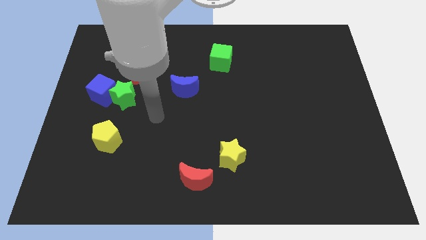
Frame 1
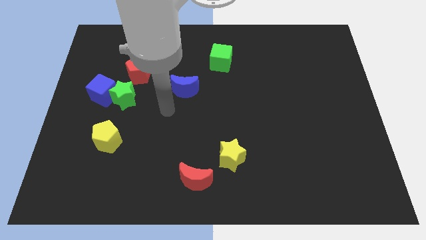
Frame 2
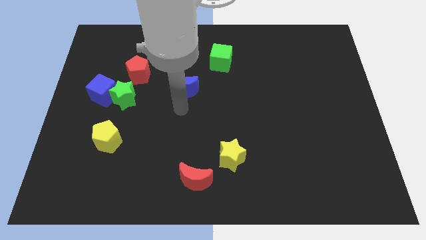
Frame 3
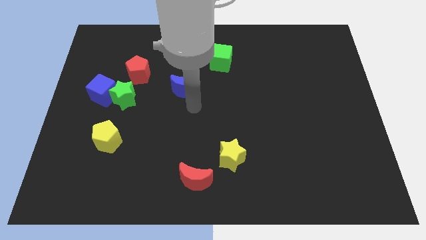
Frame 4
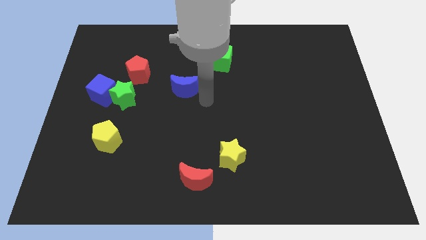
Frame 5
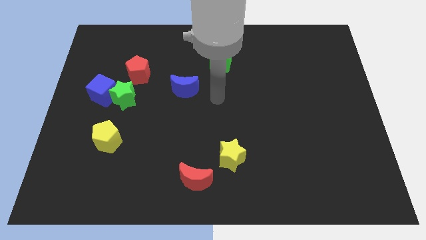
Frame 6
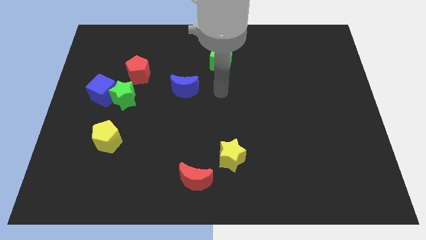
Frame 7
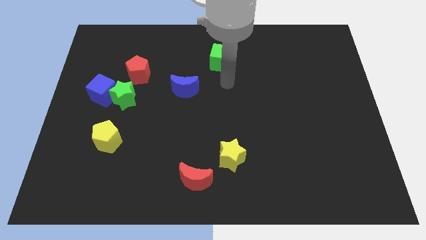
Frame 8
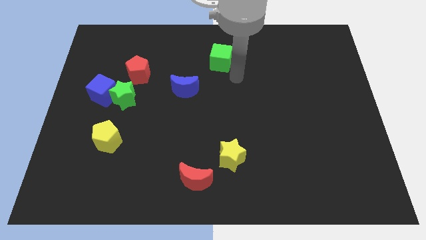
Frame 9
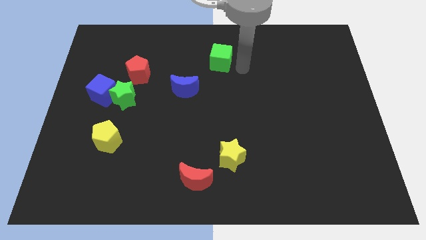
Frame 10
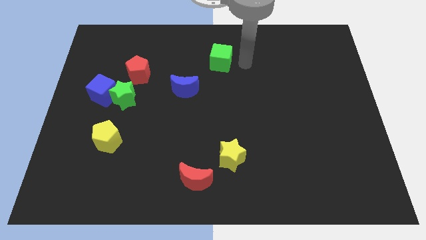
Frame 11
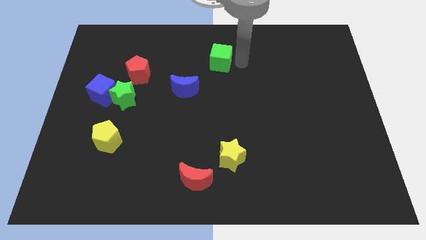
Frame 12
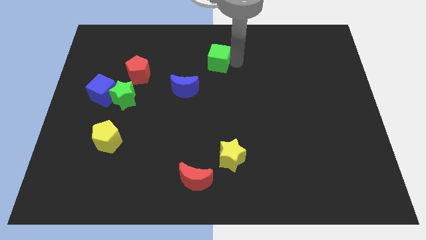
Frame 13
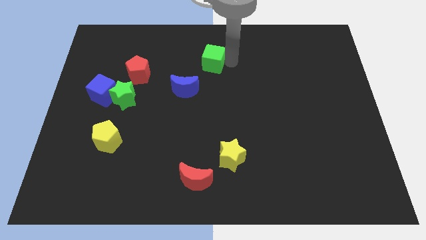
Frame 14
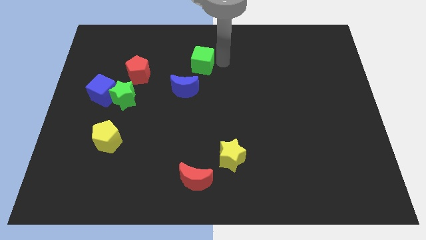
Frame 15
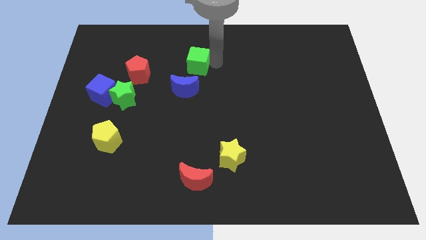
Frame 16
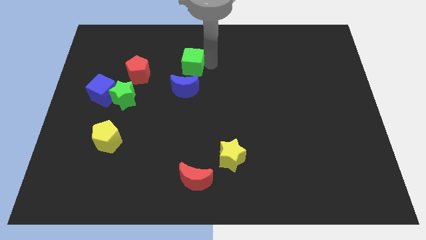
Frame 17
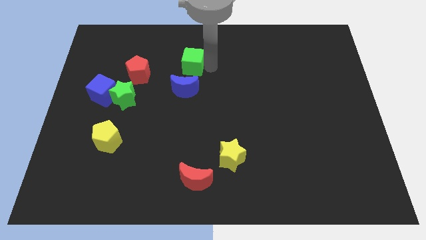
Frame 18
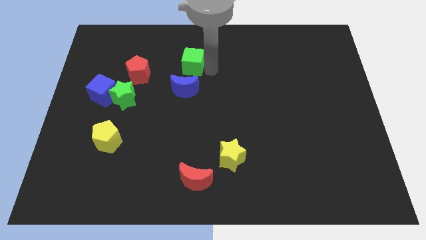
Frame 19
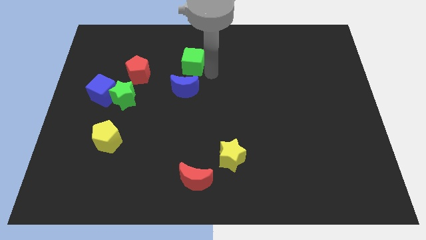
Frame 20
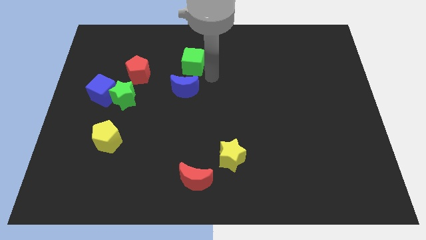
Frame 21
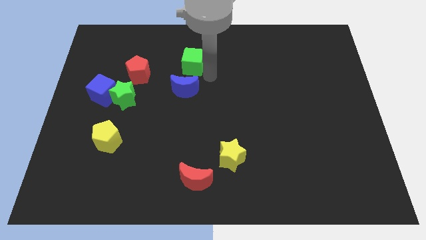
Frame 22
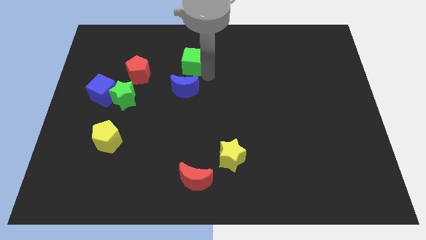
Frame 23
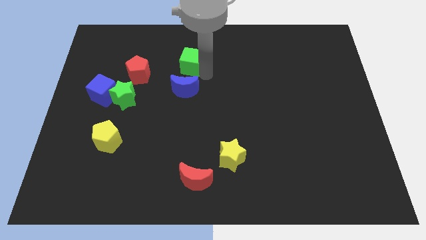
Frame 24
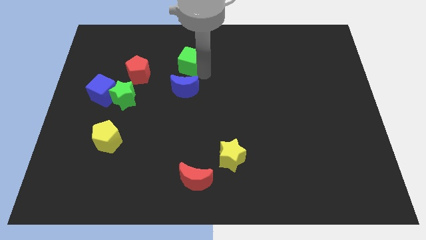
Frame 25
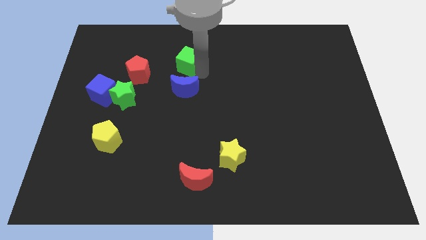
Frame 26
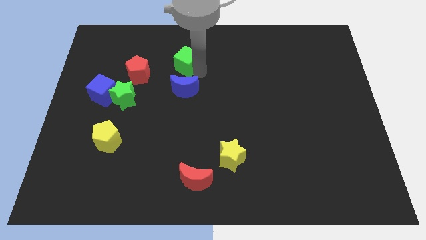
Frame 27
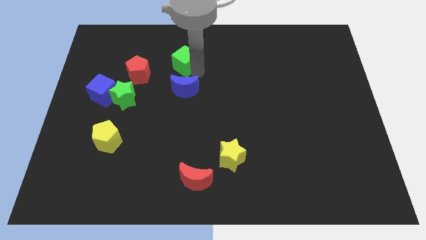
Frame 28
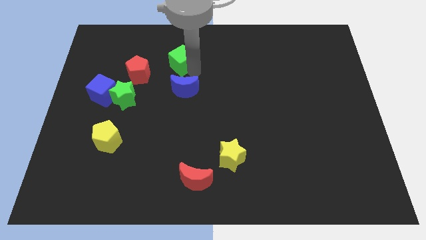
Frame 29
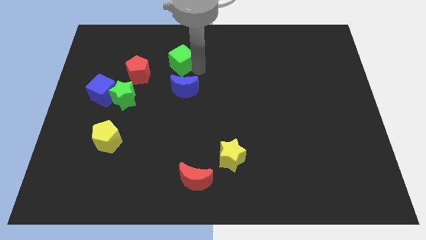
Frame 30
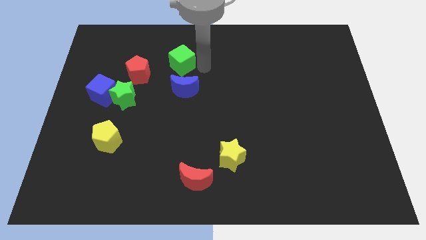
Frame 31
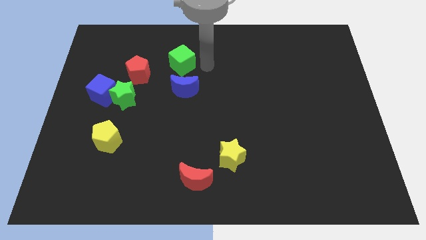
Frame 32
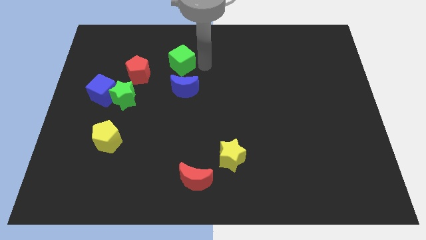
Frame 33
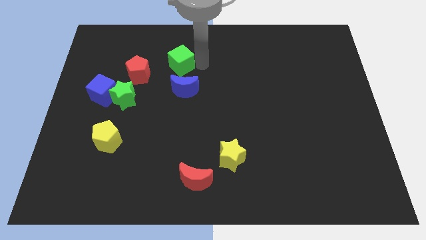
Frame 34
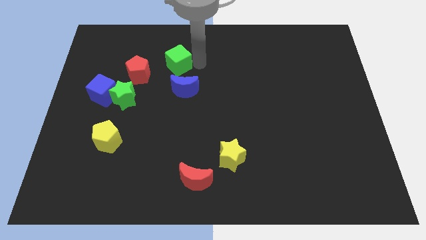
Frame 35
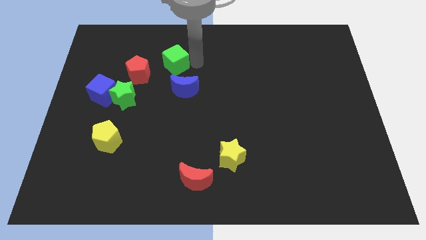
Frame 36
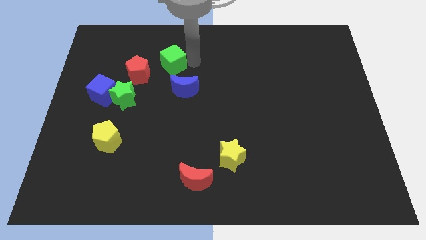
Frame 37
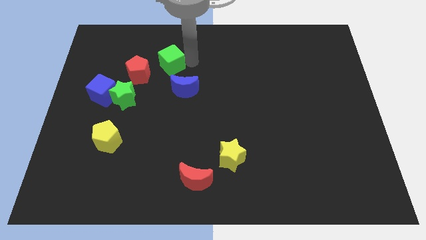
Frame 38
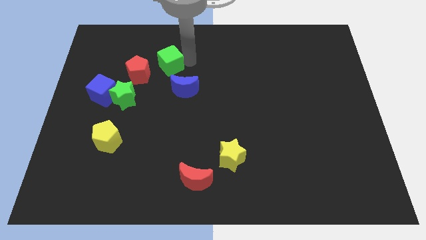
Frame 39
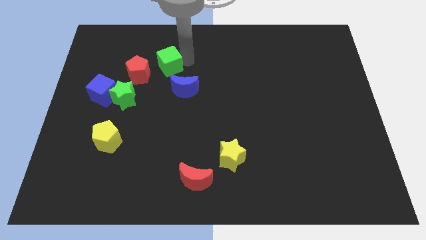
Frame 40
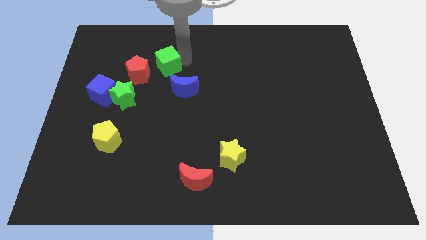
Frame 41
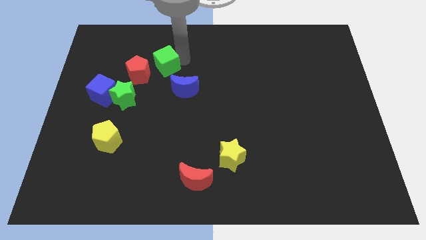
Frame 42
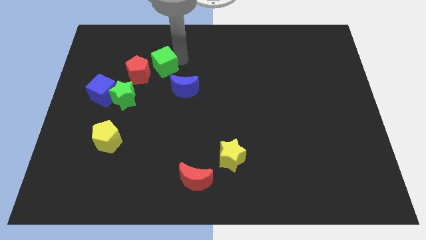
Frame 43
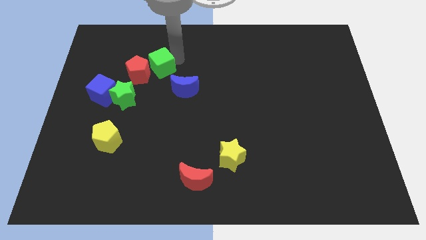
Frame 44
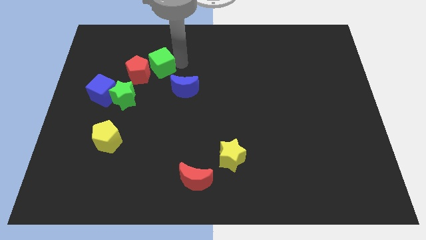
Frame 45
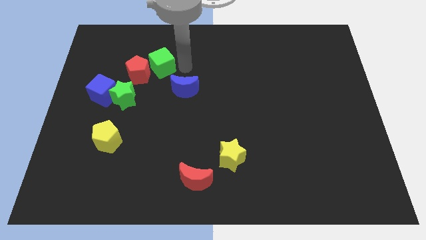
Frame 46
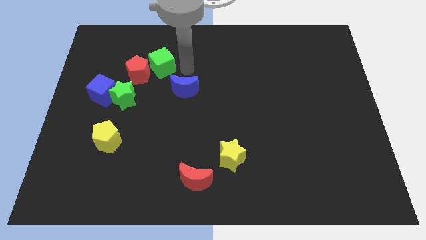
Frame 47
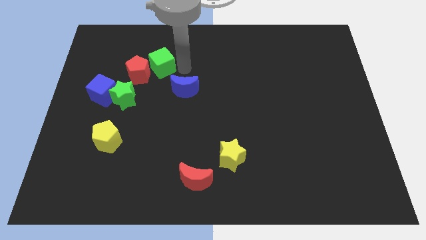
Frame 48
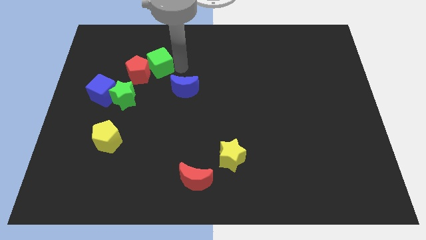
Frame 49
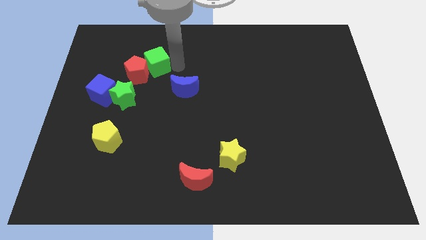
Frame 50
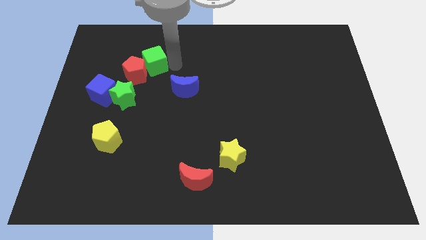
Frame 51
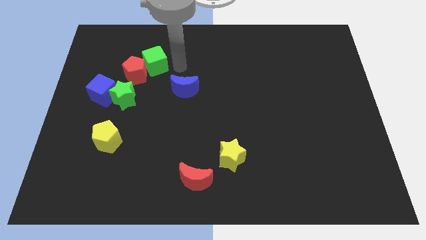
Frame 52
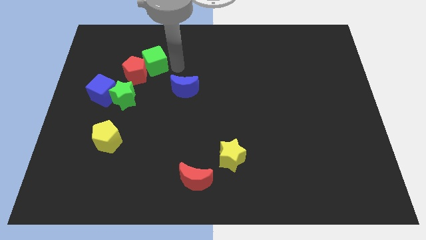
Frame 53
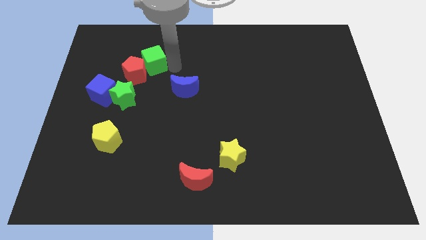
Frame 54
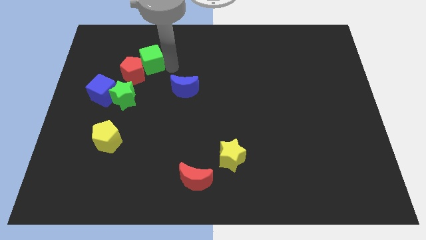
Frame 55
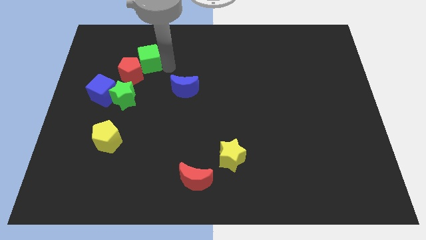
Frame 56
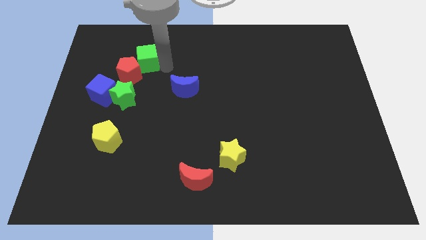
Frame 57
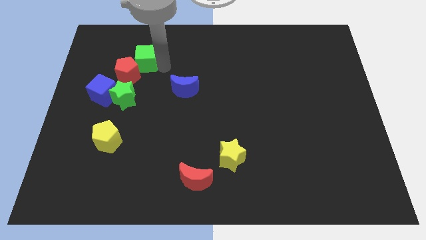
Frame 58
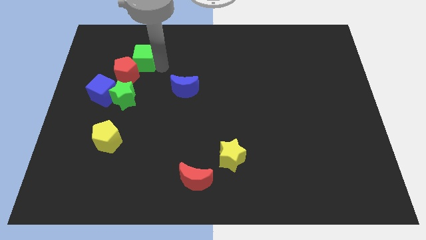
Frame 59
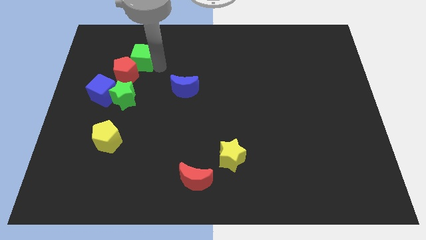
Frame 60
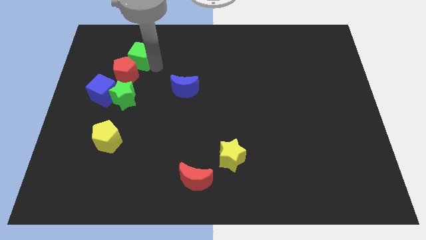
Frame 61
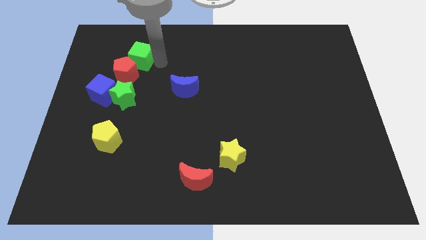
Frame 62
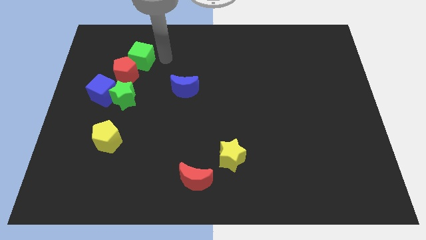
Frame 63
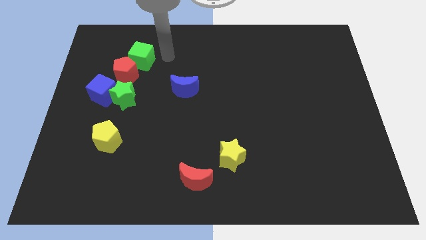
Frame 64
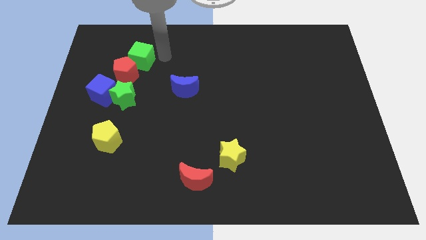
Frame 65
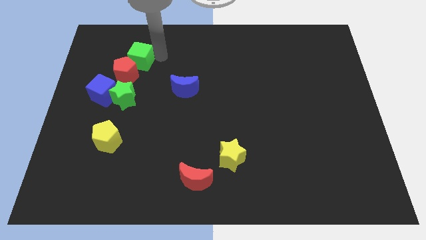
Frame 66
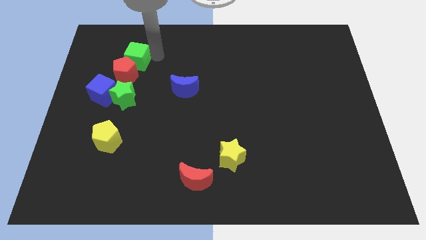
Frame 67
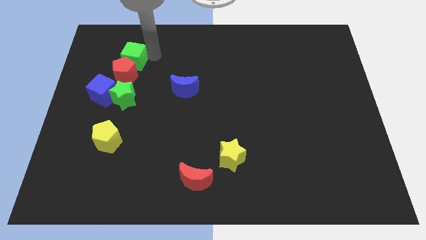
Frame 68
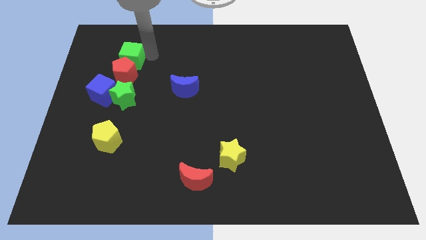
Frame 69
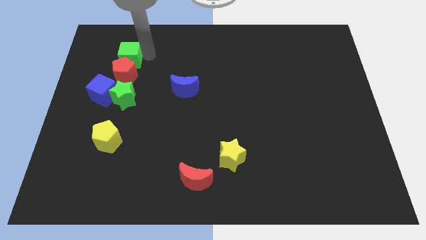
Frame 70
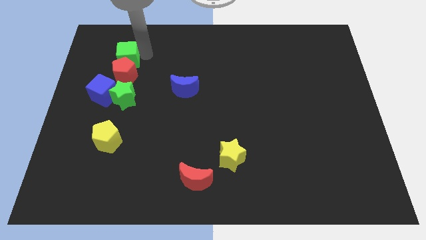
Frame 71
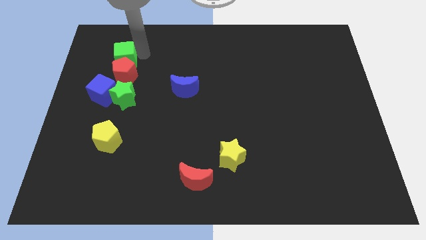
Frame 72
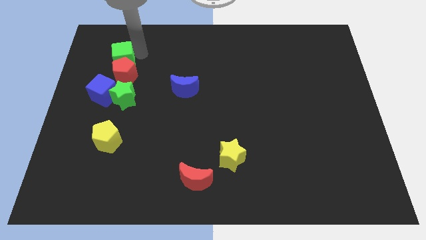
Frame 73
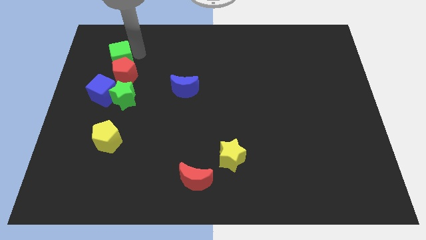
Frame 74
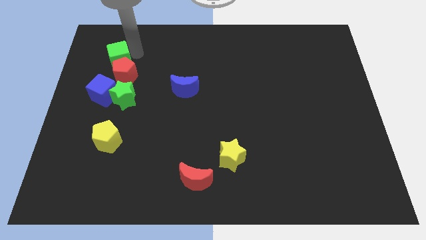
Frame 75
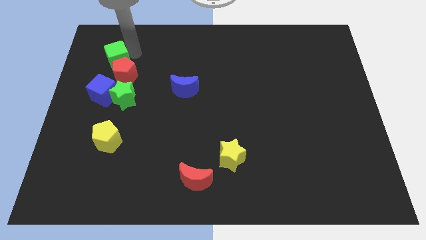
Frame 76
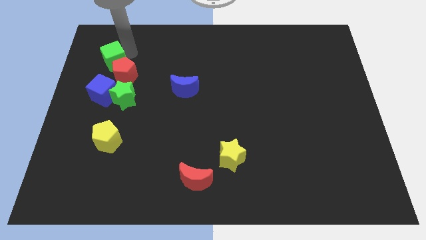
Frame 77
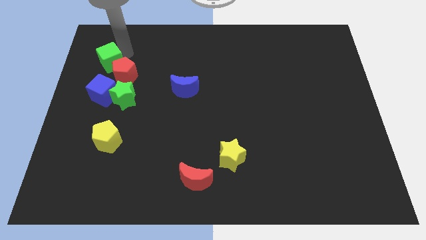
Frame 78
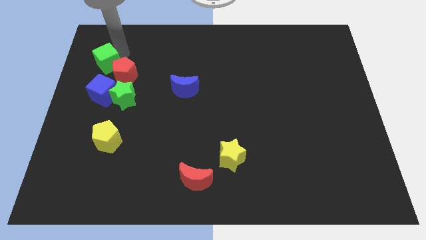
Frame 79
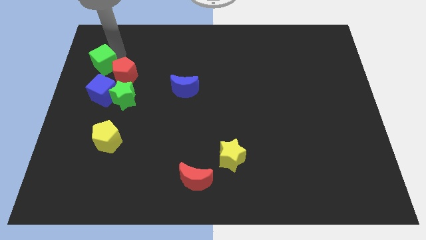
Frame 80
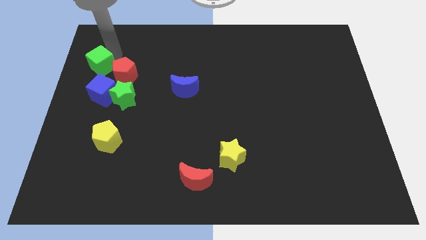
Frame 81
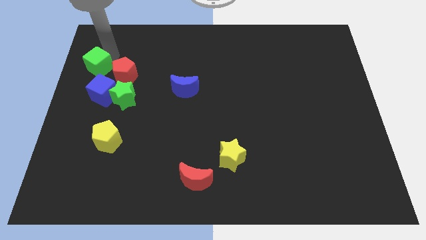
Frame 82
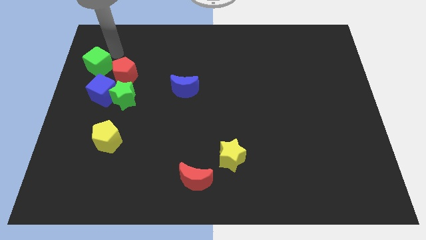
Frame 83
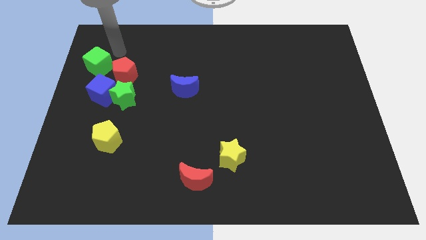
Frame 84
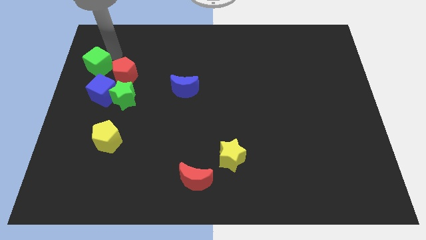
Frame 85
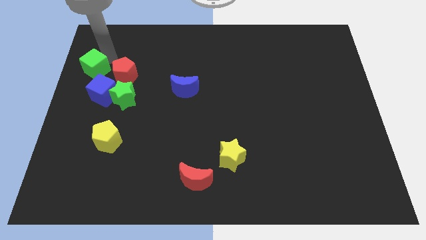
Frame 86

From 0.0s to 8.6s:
move the green cube to the left side of the board
